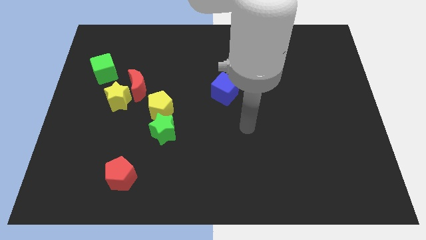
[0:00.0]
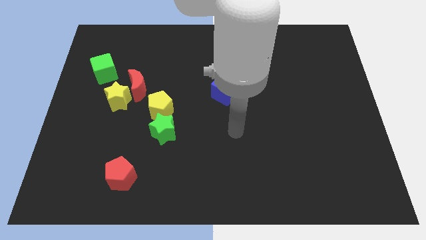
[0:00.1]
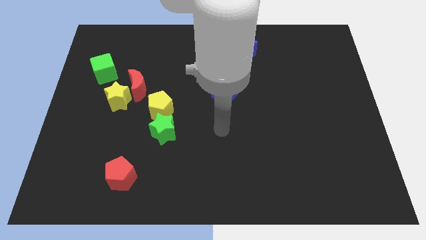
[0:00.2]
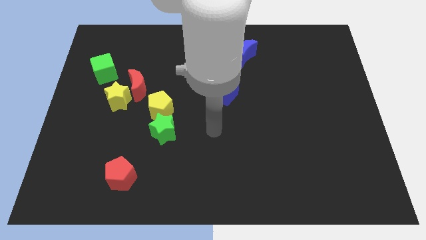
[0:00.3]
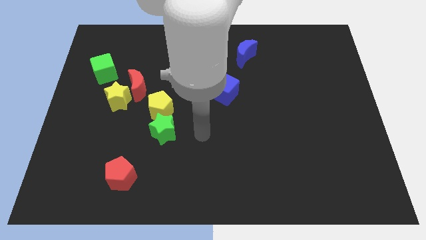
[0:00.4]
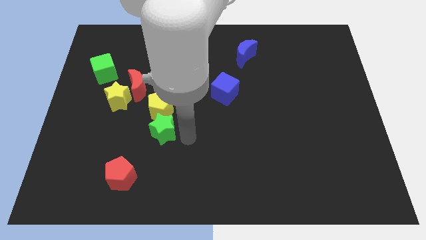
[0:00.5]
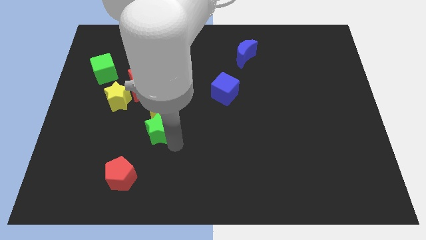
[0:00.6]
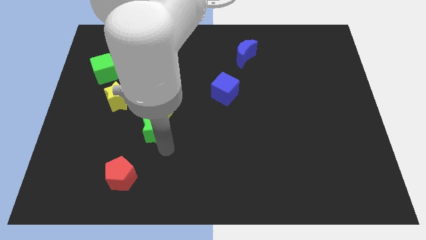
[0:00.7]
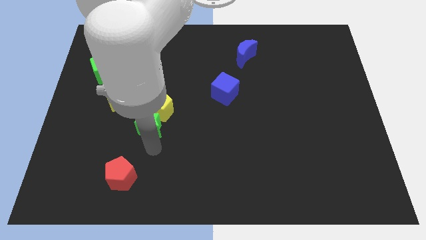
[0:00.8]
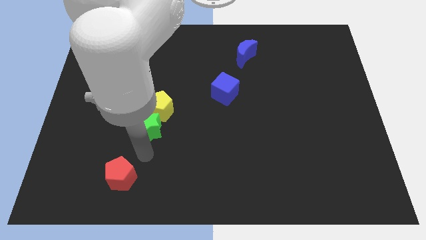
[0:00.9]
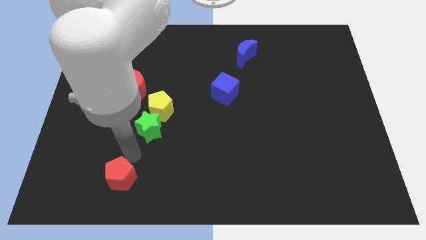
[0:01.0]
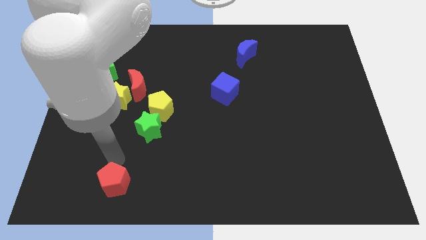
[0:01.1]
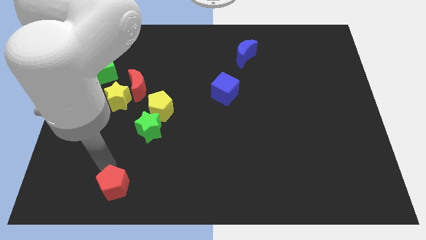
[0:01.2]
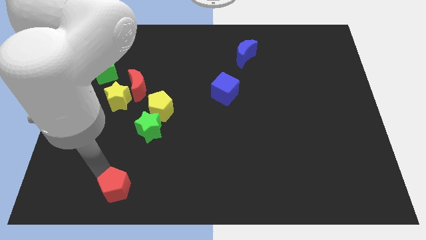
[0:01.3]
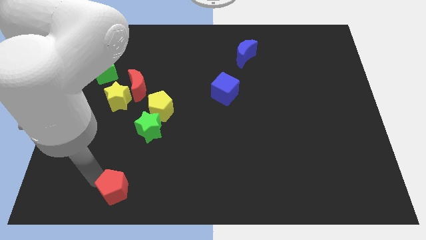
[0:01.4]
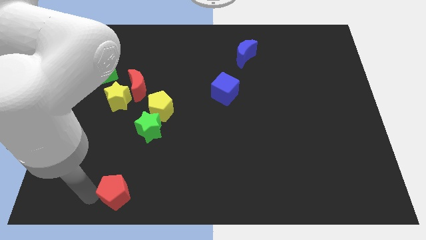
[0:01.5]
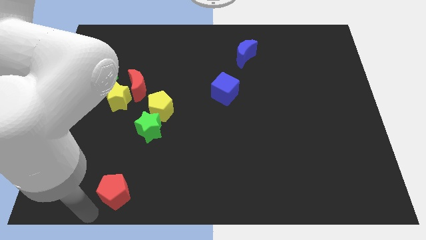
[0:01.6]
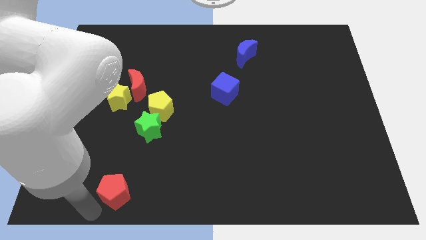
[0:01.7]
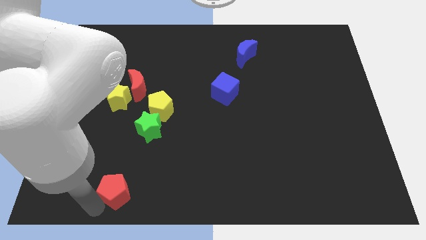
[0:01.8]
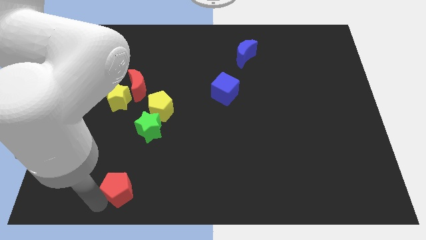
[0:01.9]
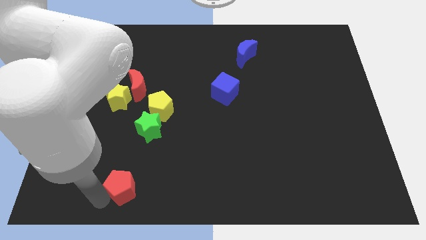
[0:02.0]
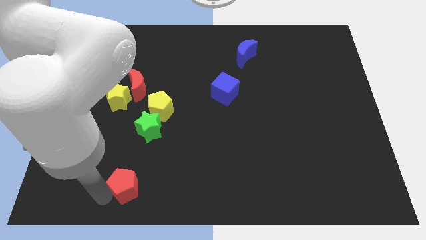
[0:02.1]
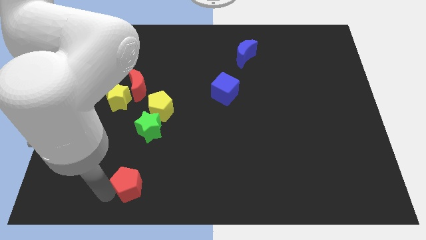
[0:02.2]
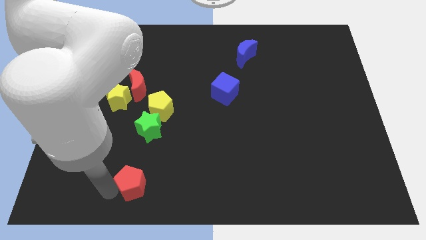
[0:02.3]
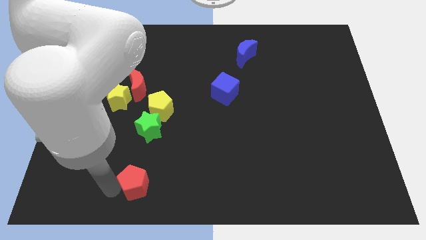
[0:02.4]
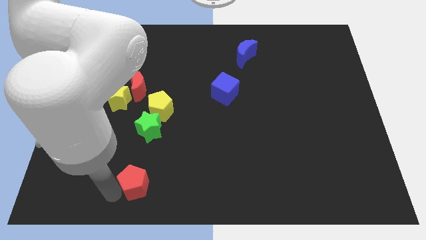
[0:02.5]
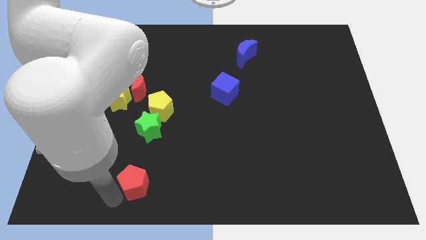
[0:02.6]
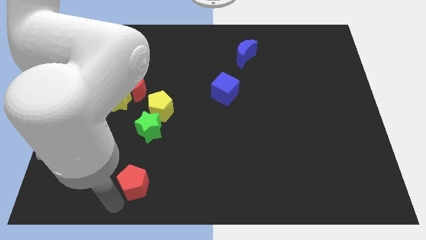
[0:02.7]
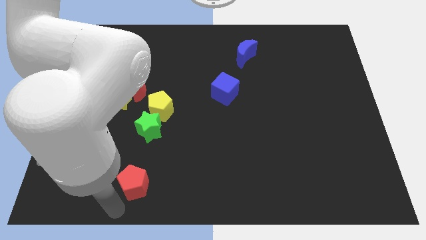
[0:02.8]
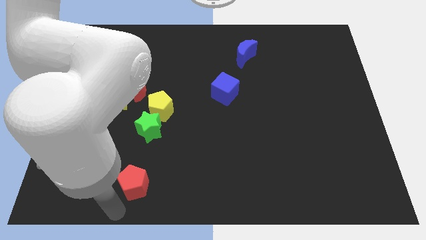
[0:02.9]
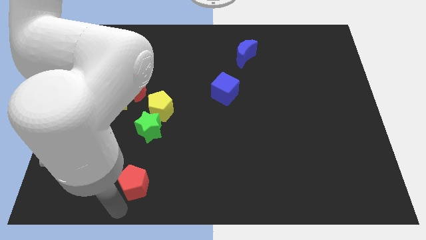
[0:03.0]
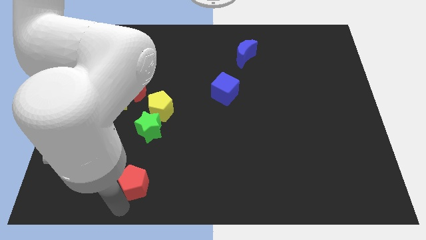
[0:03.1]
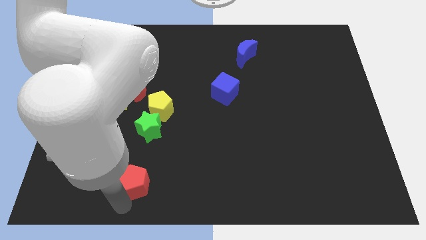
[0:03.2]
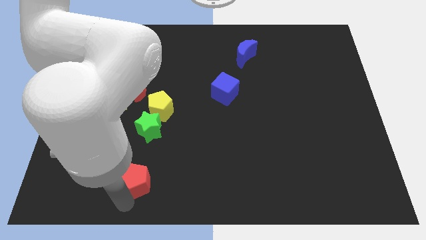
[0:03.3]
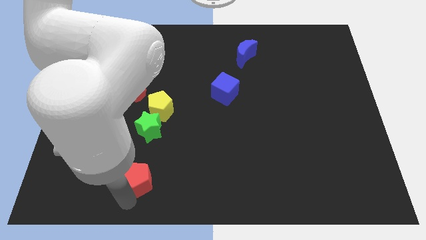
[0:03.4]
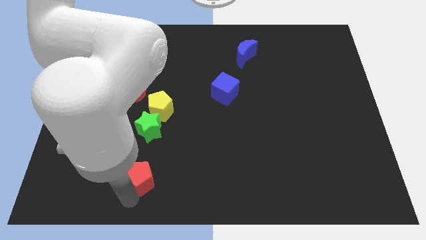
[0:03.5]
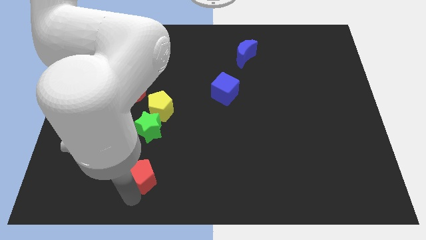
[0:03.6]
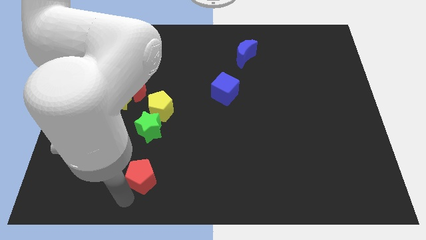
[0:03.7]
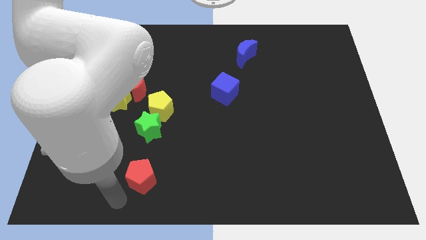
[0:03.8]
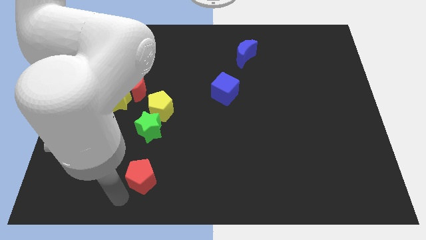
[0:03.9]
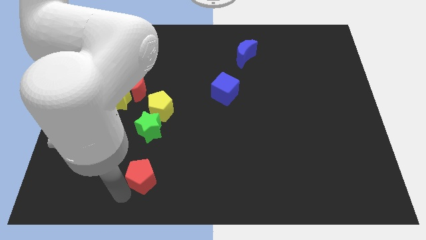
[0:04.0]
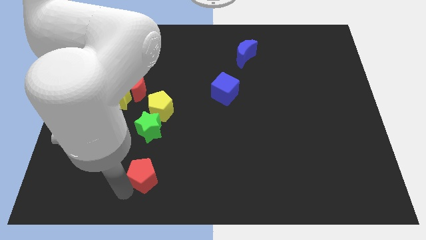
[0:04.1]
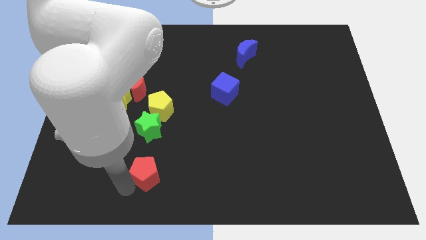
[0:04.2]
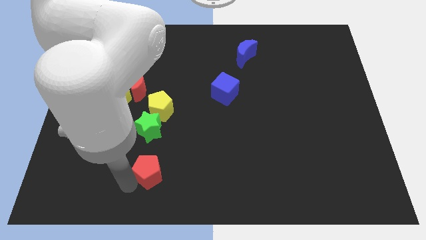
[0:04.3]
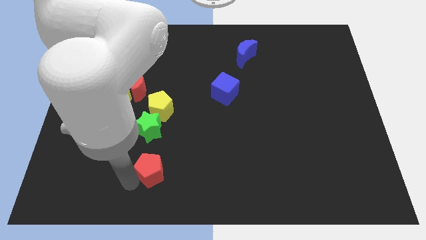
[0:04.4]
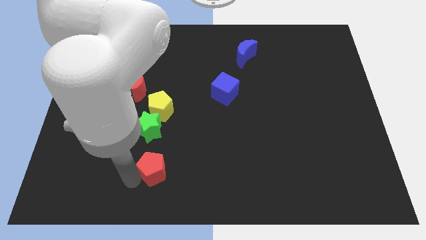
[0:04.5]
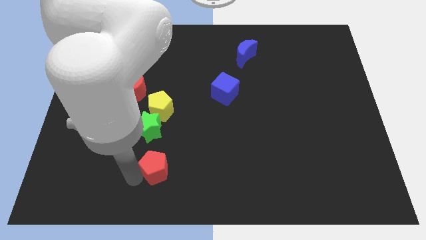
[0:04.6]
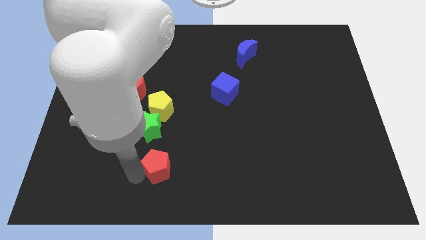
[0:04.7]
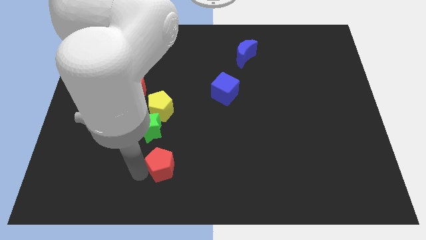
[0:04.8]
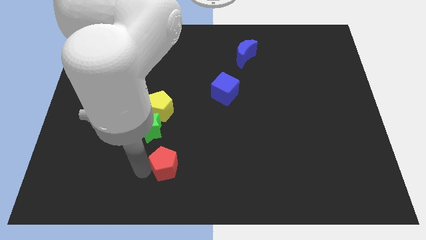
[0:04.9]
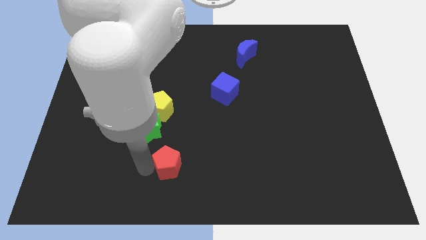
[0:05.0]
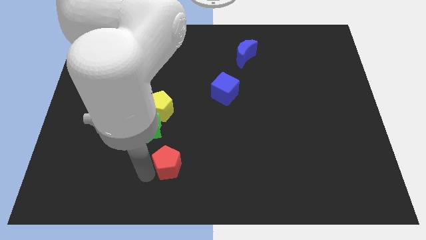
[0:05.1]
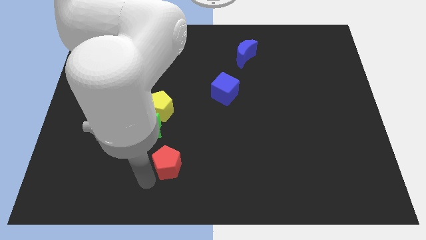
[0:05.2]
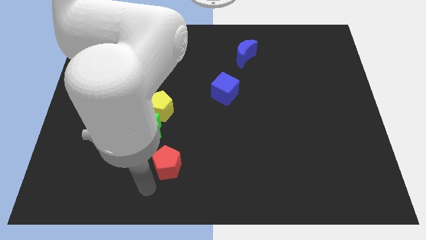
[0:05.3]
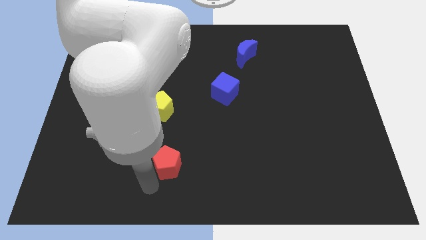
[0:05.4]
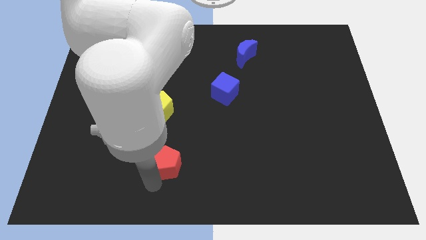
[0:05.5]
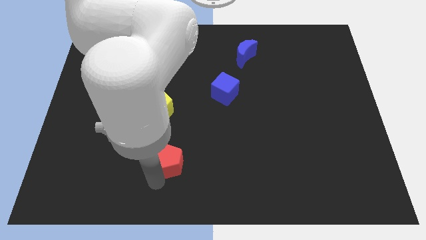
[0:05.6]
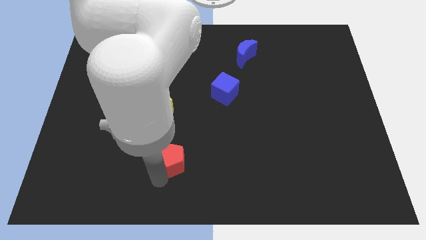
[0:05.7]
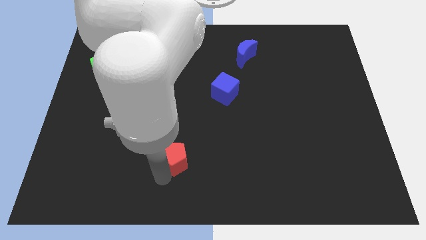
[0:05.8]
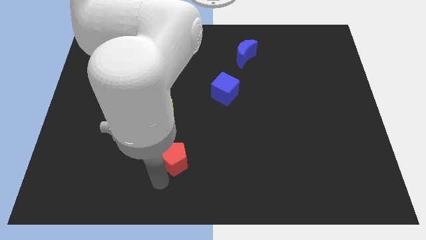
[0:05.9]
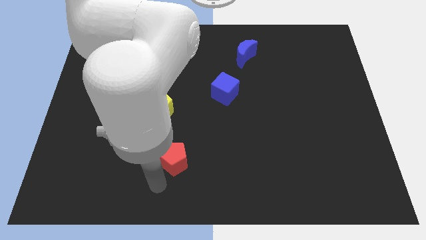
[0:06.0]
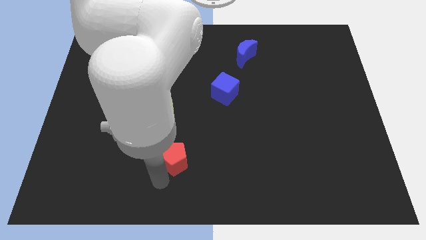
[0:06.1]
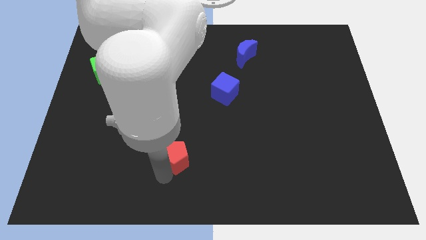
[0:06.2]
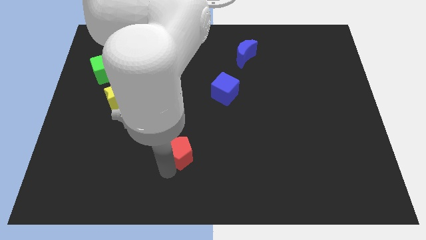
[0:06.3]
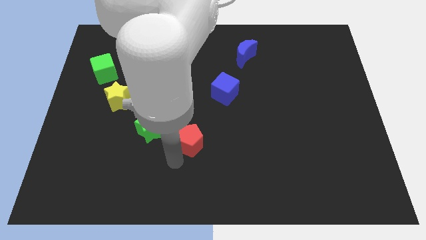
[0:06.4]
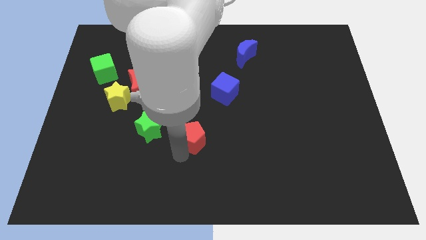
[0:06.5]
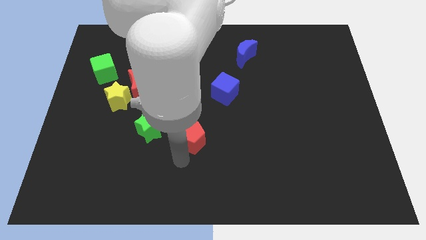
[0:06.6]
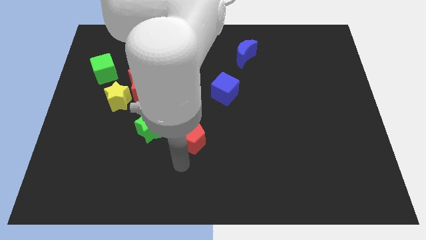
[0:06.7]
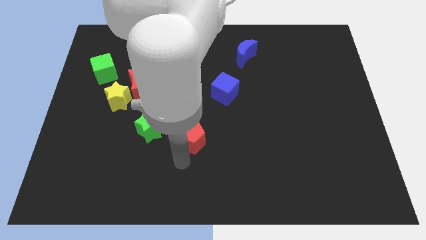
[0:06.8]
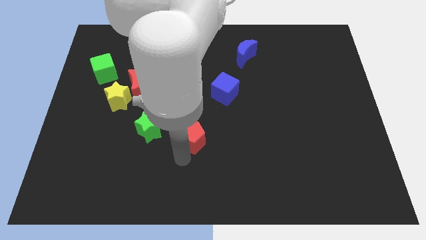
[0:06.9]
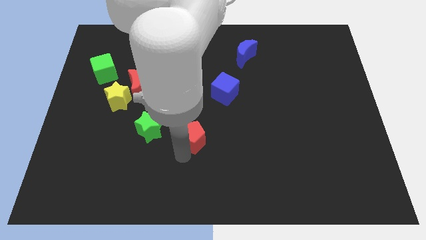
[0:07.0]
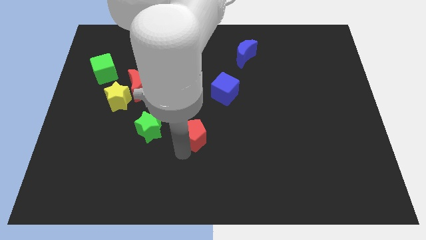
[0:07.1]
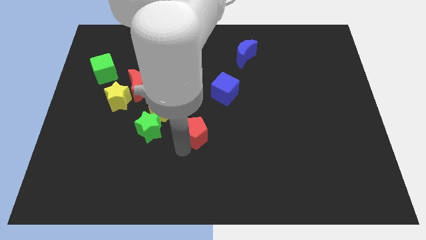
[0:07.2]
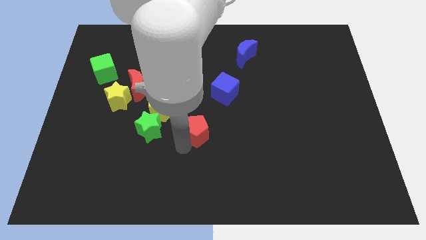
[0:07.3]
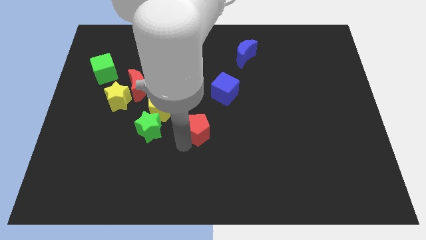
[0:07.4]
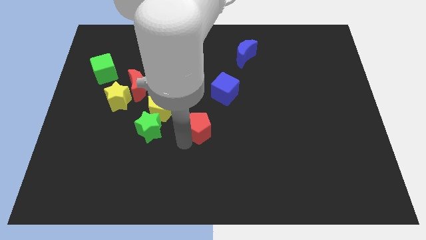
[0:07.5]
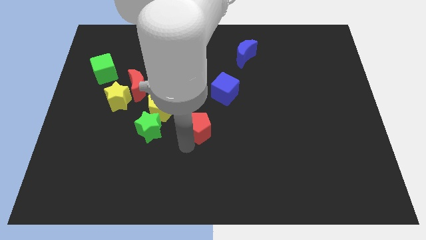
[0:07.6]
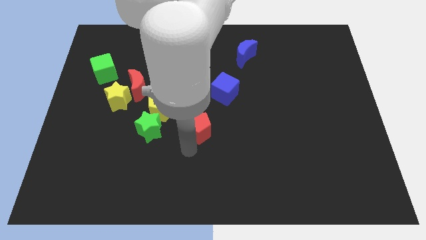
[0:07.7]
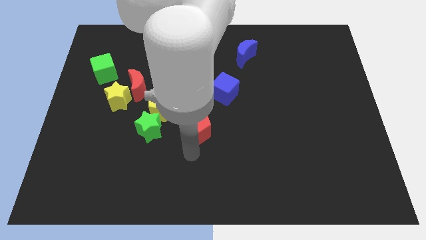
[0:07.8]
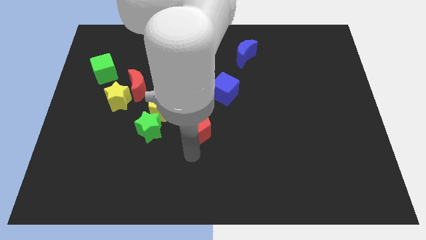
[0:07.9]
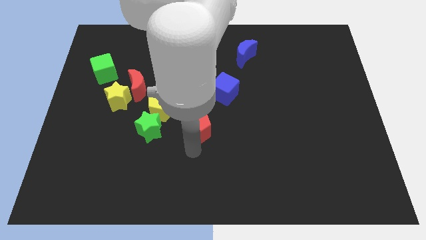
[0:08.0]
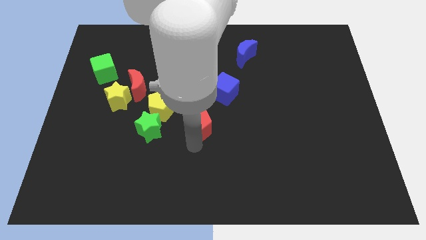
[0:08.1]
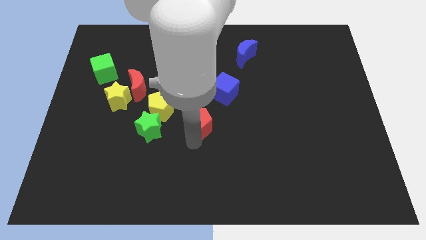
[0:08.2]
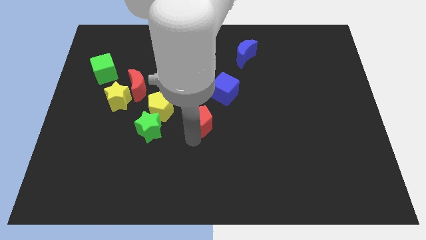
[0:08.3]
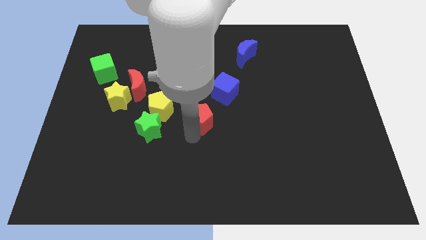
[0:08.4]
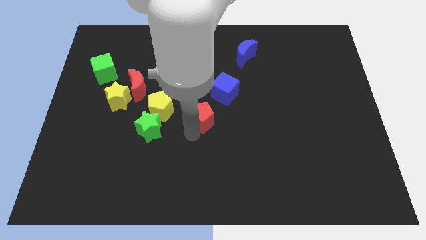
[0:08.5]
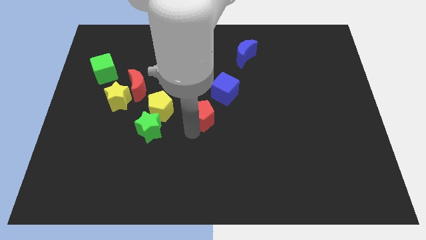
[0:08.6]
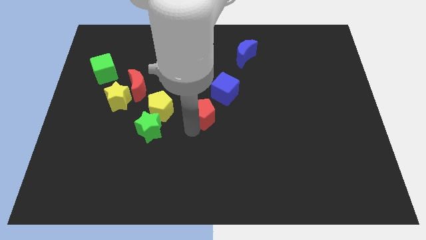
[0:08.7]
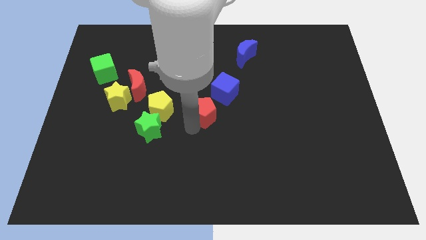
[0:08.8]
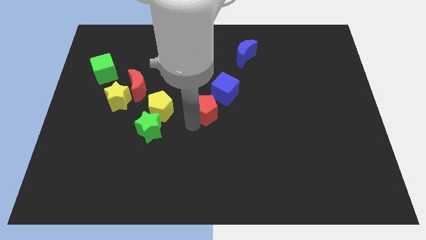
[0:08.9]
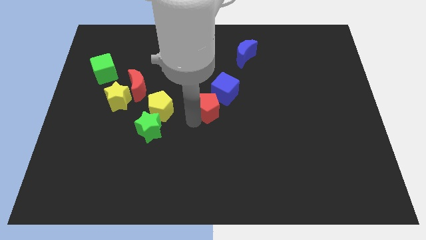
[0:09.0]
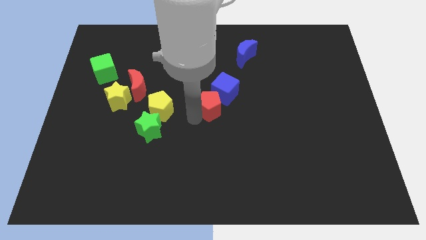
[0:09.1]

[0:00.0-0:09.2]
push the red pentagon next to the blue cube
